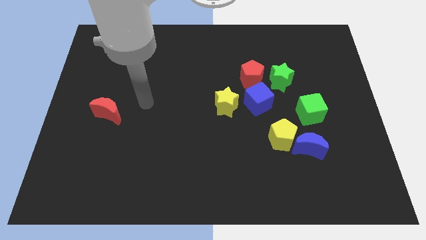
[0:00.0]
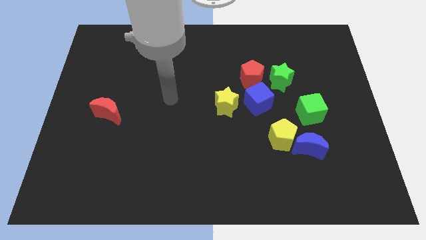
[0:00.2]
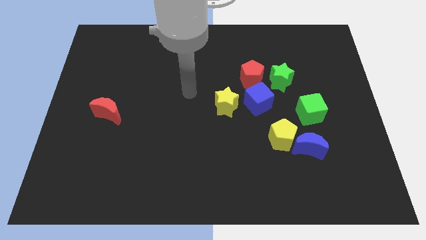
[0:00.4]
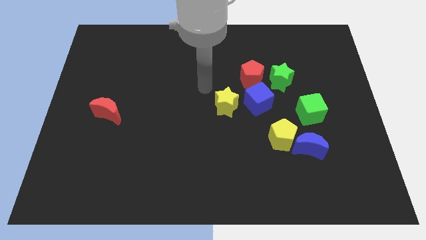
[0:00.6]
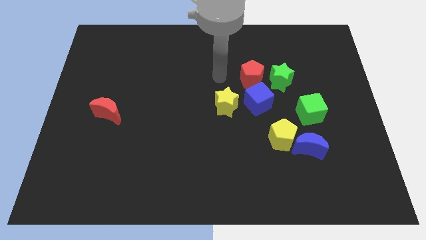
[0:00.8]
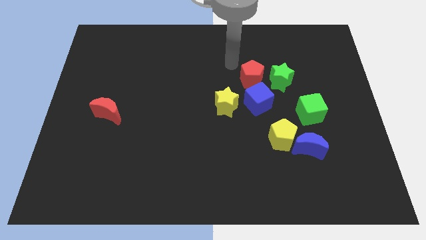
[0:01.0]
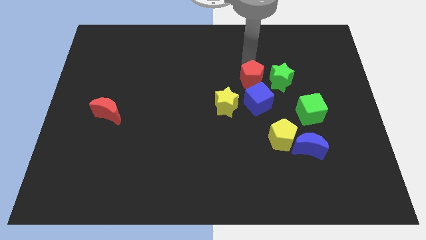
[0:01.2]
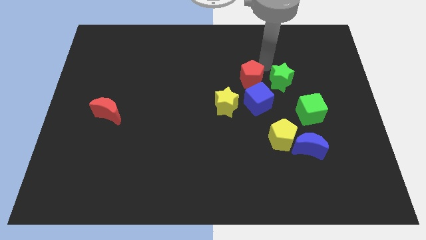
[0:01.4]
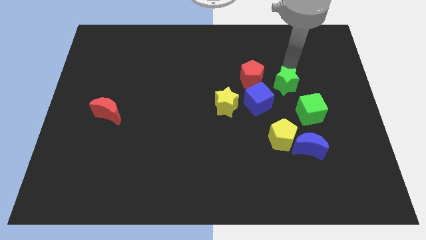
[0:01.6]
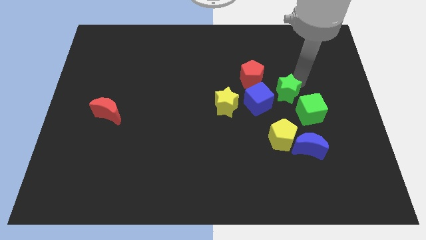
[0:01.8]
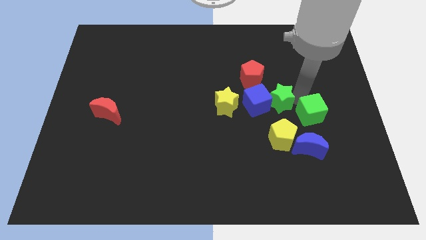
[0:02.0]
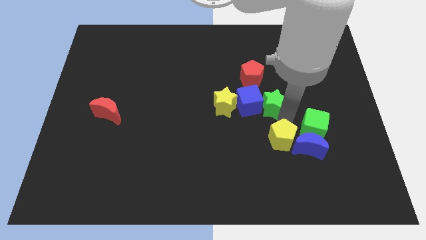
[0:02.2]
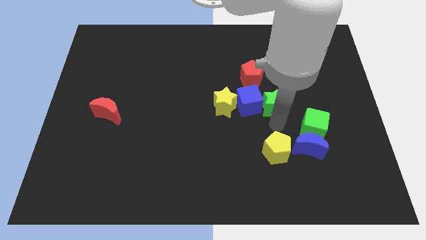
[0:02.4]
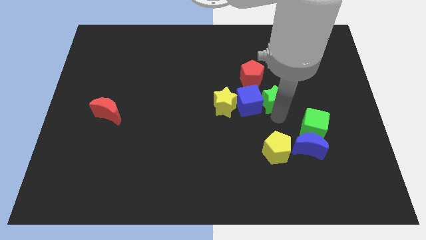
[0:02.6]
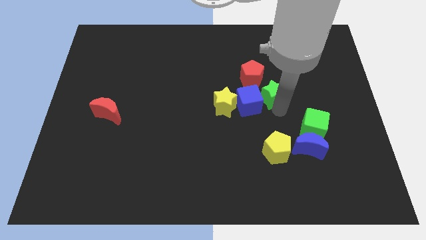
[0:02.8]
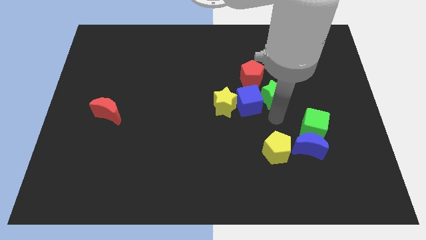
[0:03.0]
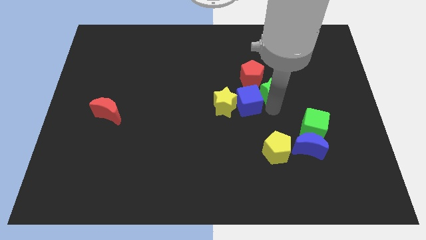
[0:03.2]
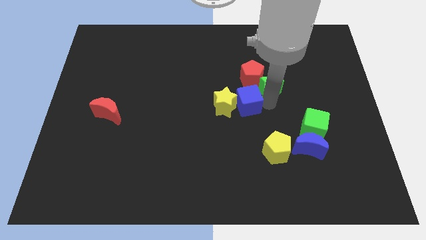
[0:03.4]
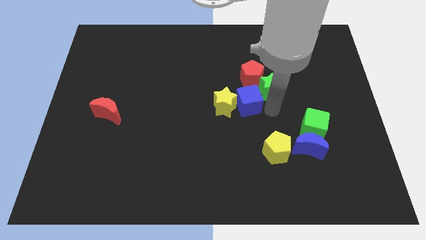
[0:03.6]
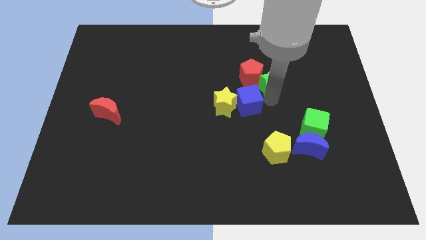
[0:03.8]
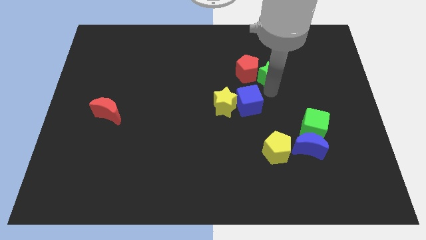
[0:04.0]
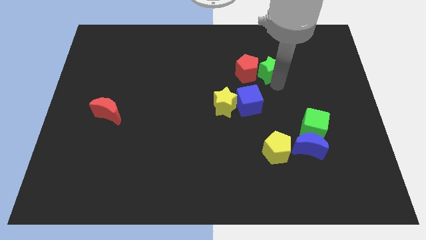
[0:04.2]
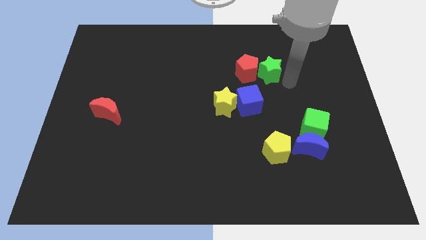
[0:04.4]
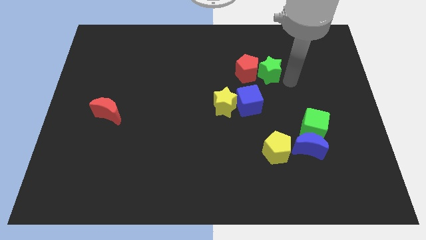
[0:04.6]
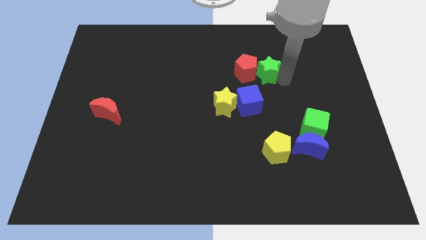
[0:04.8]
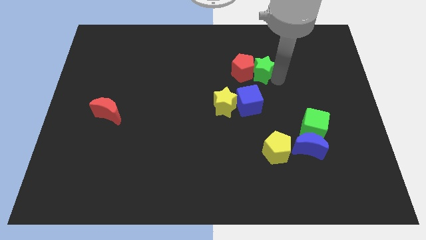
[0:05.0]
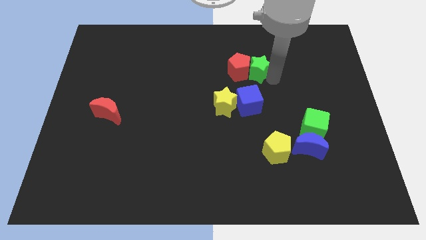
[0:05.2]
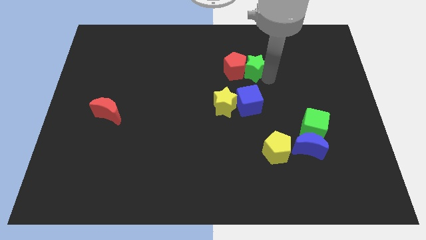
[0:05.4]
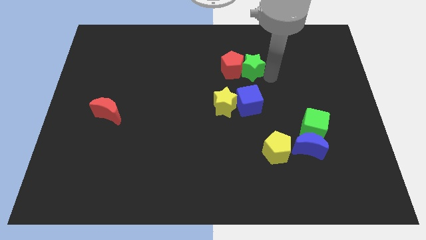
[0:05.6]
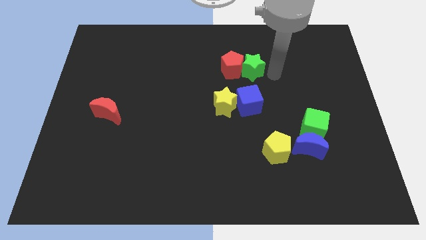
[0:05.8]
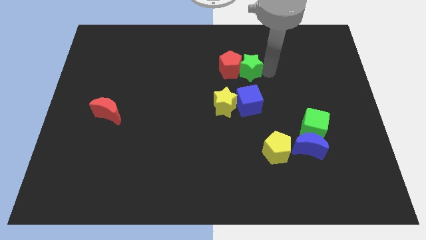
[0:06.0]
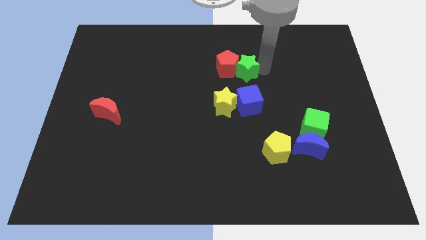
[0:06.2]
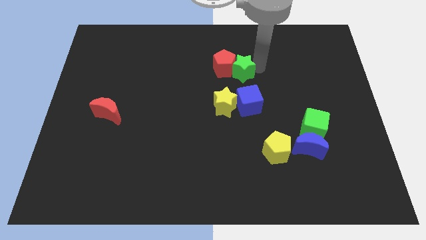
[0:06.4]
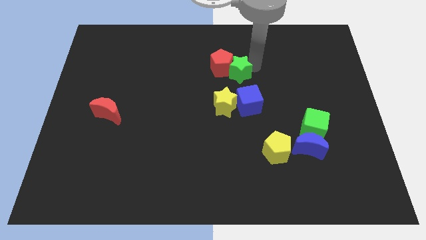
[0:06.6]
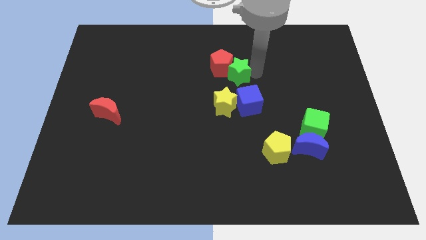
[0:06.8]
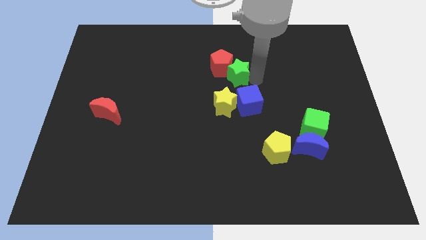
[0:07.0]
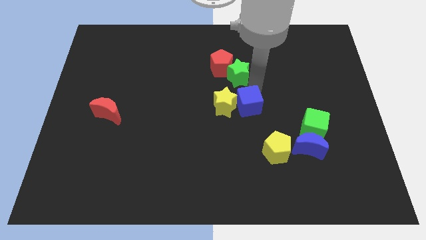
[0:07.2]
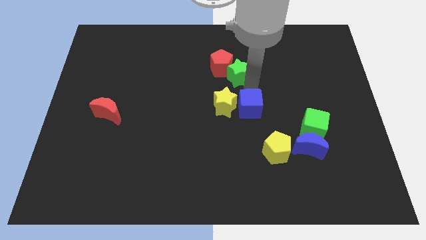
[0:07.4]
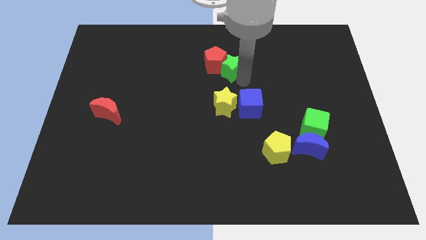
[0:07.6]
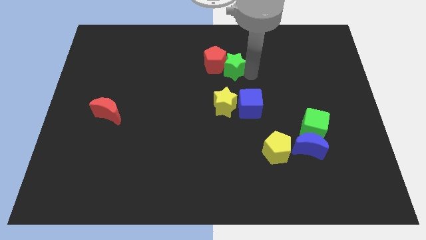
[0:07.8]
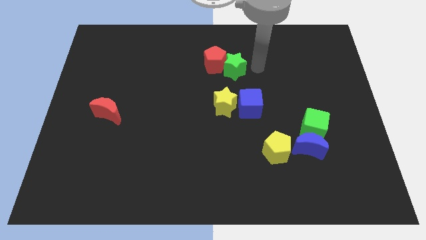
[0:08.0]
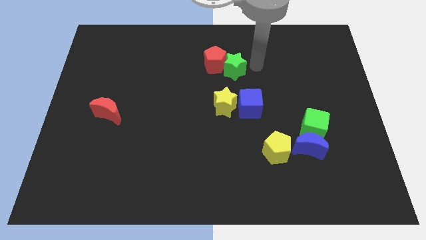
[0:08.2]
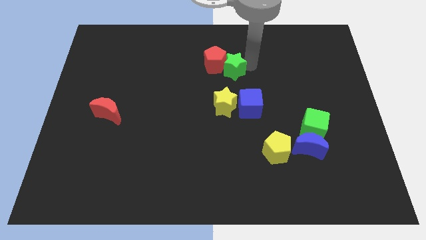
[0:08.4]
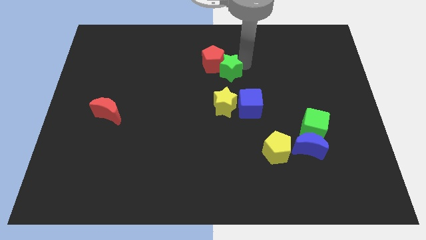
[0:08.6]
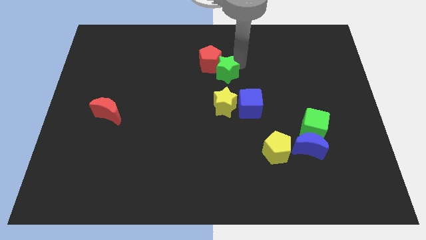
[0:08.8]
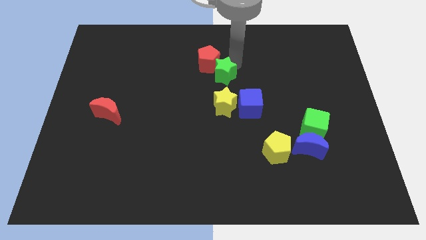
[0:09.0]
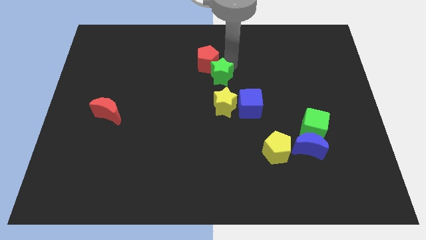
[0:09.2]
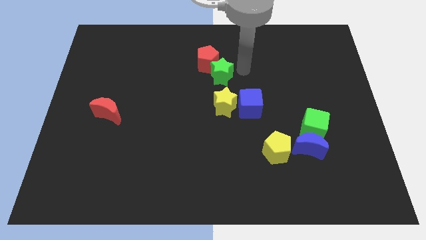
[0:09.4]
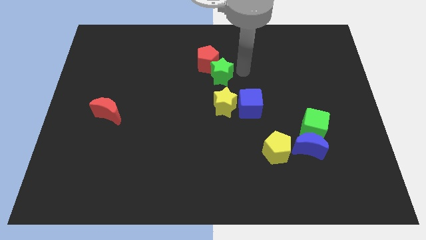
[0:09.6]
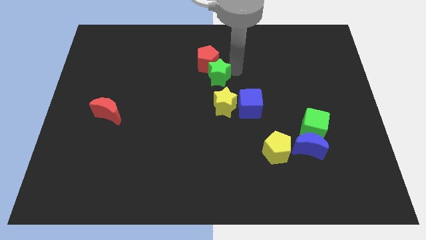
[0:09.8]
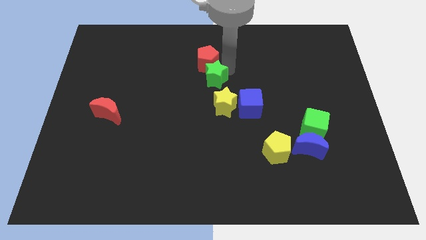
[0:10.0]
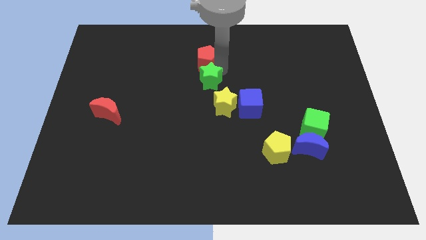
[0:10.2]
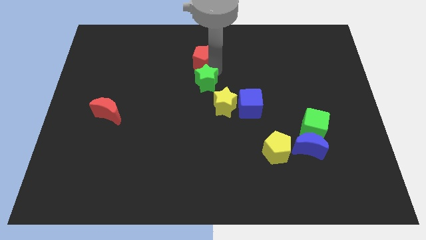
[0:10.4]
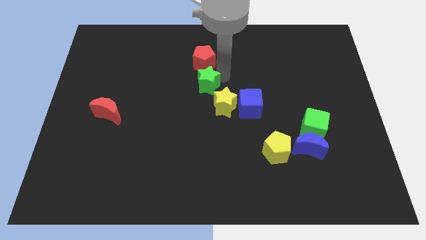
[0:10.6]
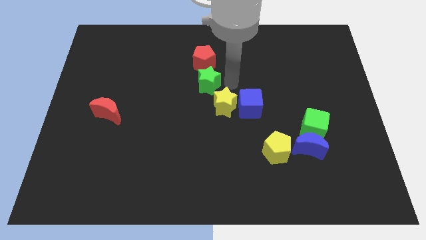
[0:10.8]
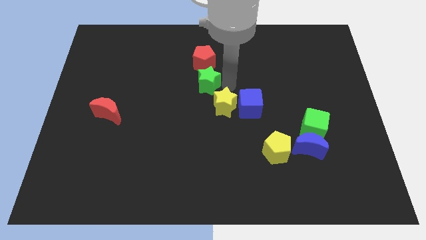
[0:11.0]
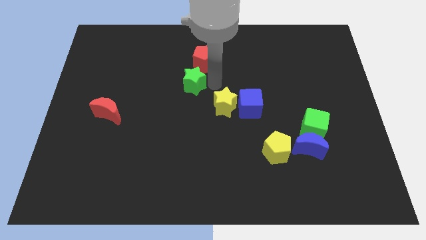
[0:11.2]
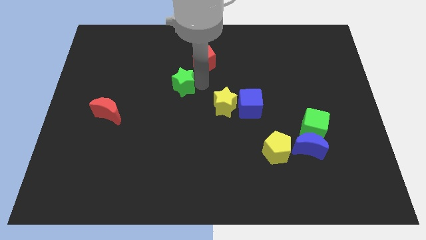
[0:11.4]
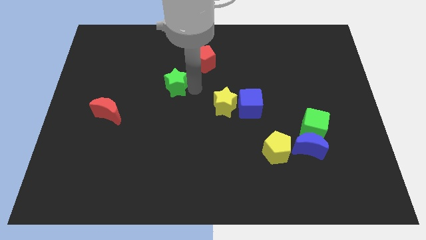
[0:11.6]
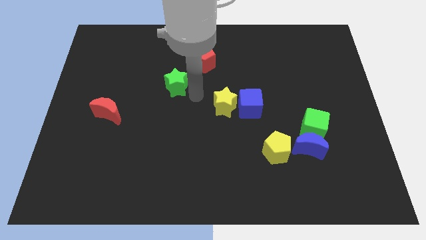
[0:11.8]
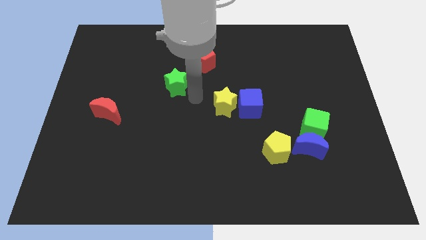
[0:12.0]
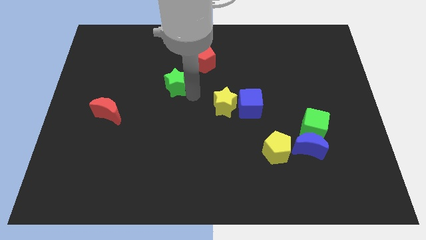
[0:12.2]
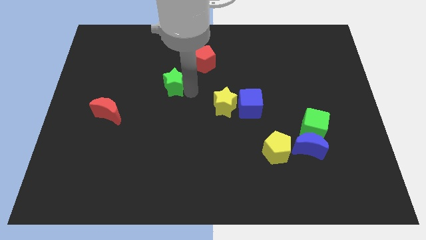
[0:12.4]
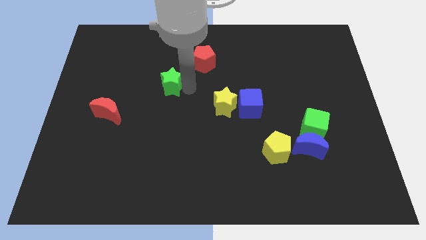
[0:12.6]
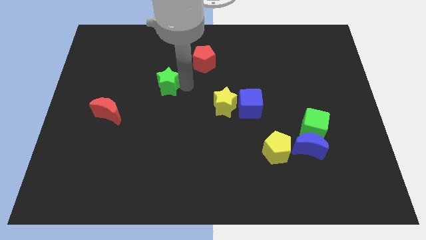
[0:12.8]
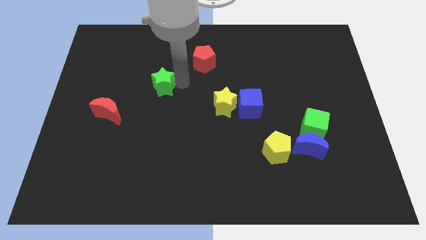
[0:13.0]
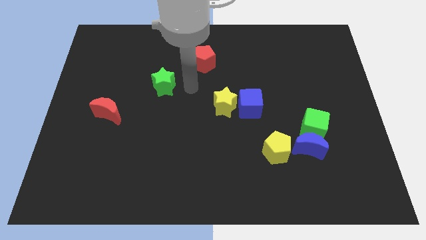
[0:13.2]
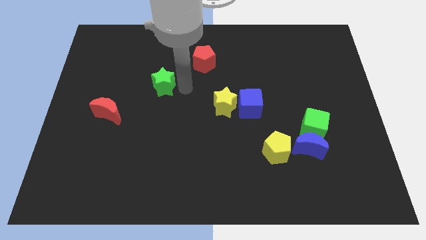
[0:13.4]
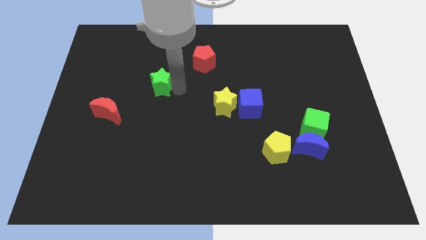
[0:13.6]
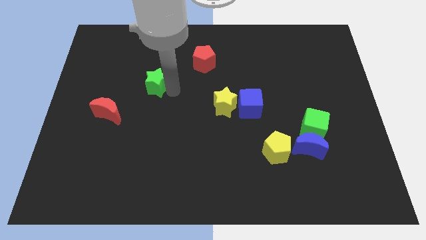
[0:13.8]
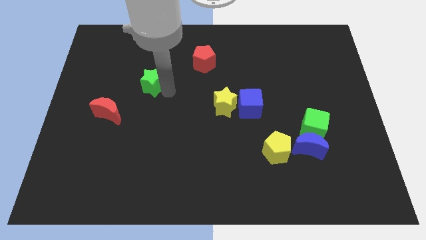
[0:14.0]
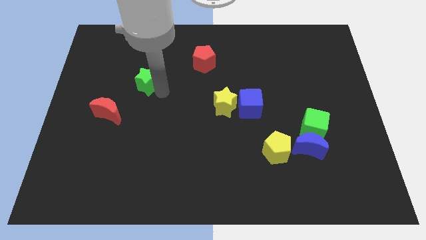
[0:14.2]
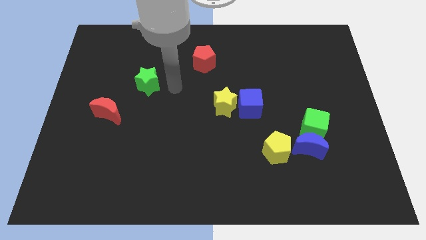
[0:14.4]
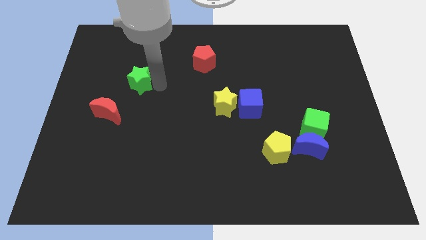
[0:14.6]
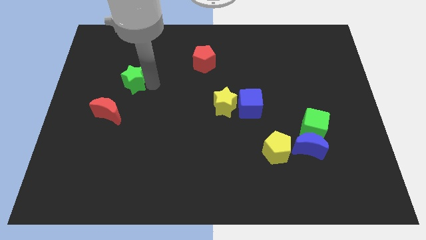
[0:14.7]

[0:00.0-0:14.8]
put the green star above the red moon
